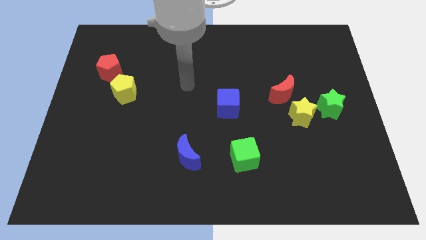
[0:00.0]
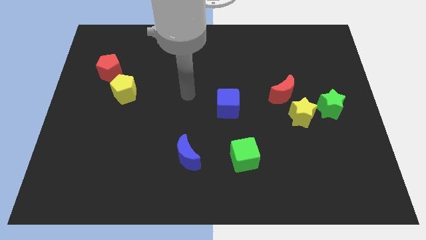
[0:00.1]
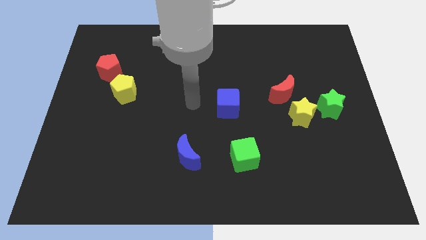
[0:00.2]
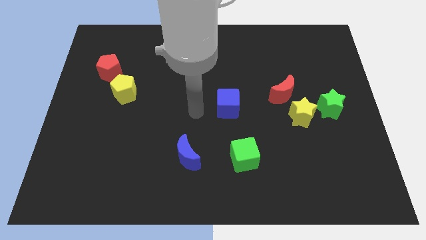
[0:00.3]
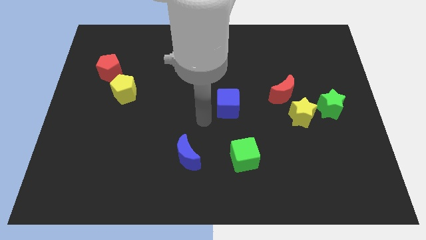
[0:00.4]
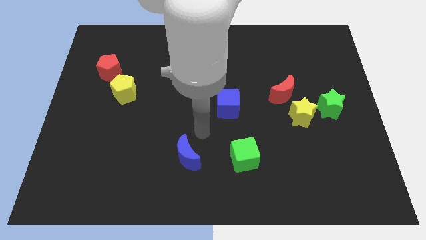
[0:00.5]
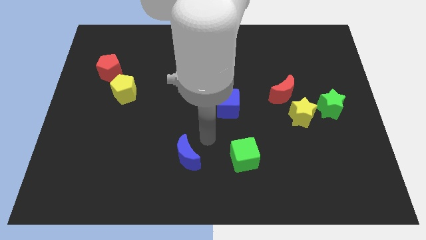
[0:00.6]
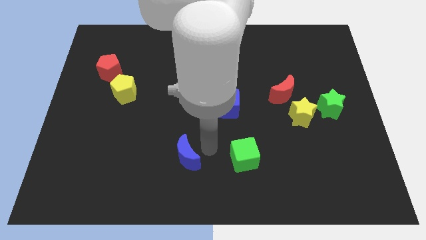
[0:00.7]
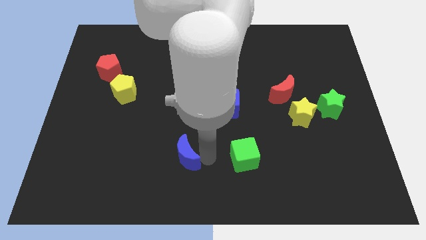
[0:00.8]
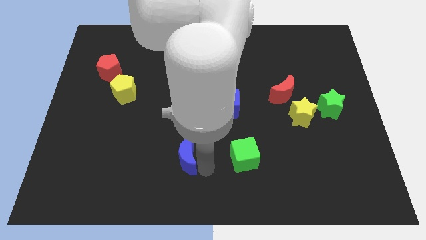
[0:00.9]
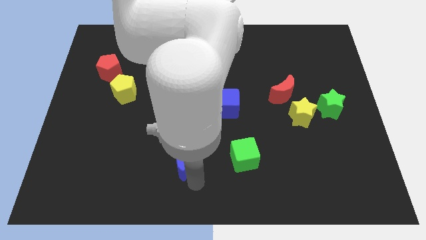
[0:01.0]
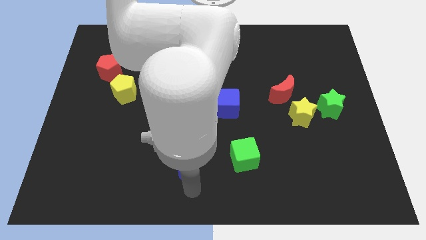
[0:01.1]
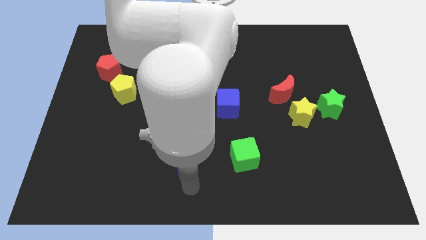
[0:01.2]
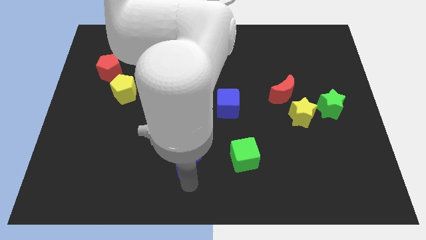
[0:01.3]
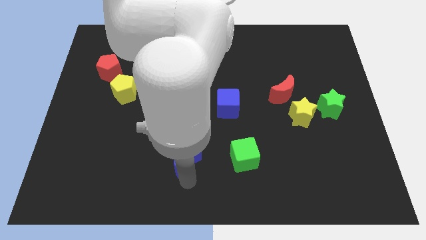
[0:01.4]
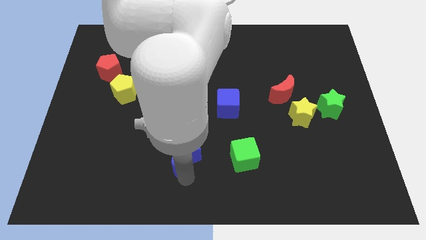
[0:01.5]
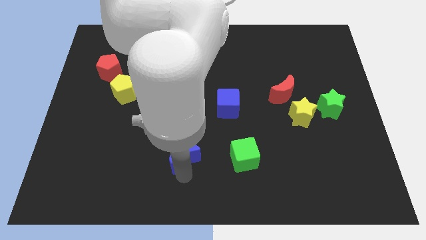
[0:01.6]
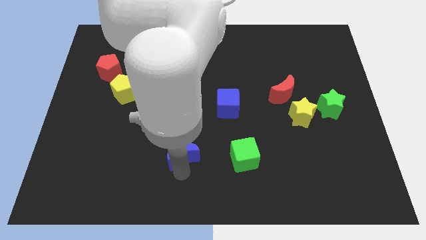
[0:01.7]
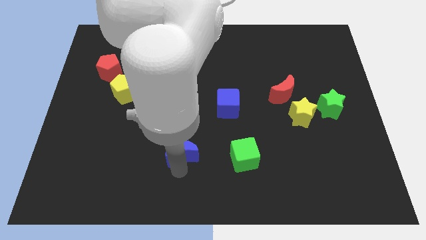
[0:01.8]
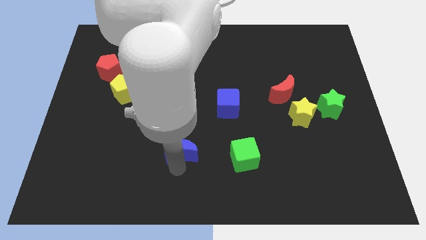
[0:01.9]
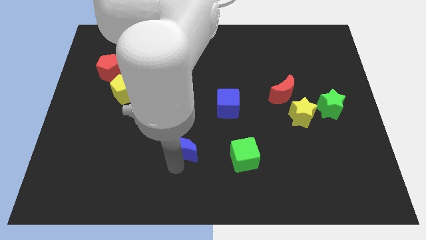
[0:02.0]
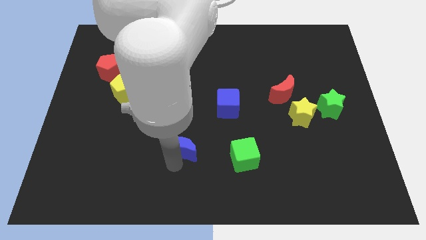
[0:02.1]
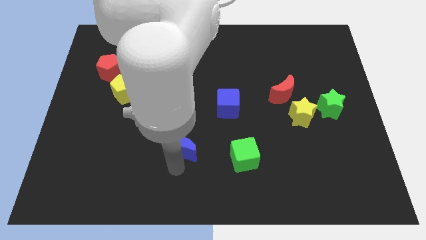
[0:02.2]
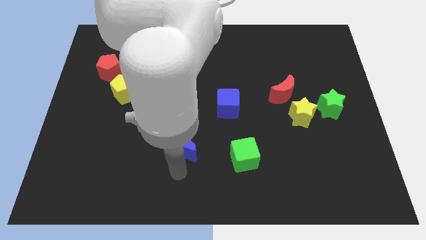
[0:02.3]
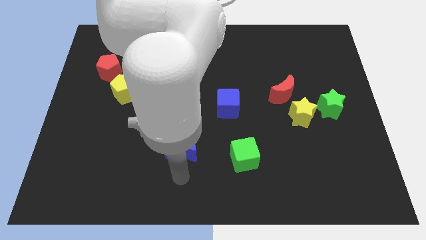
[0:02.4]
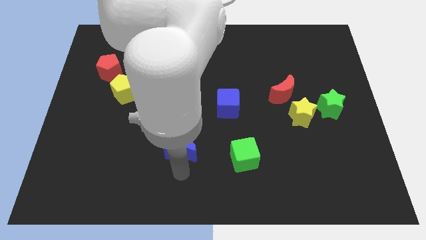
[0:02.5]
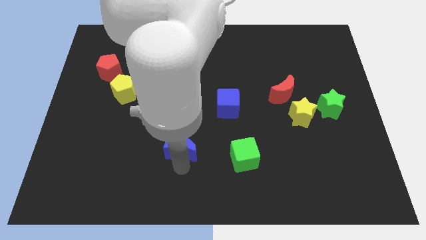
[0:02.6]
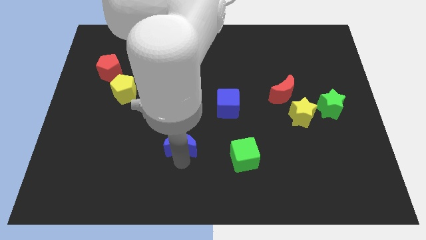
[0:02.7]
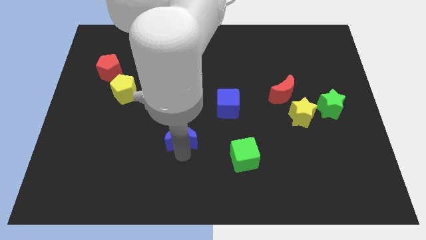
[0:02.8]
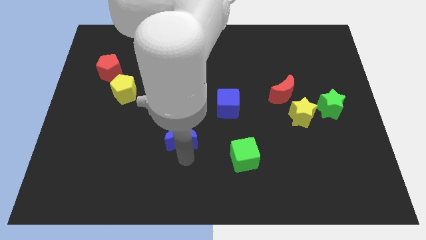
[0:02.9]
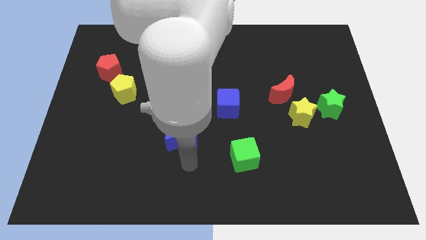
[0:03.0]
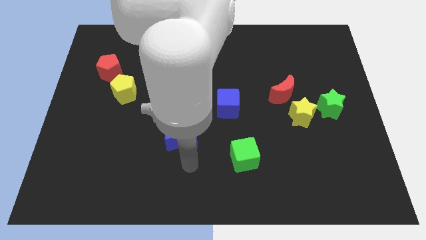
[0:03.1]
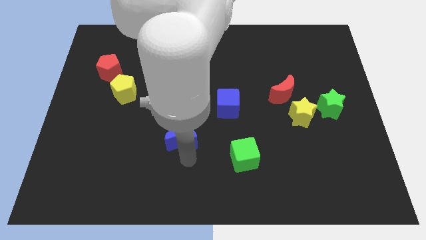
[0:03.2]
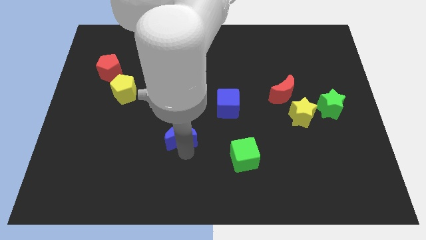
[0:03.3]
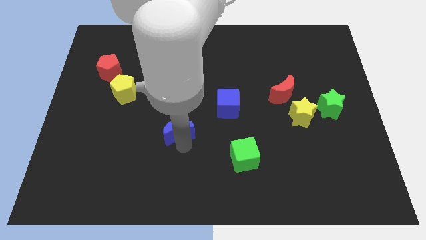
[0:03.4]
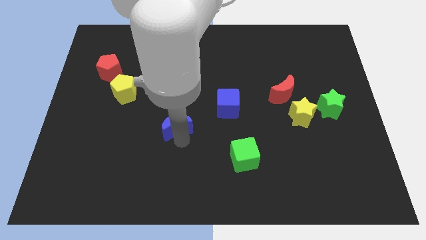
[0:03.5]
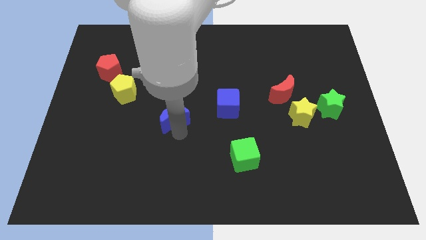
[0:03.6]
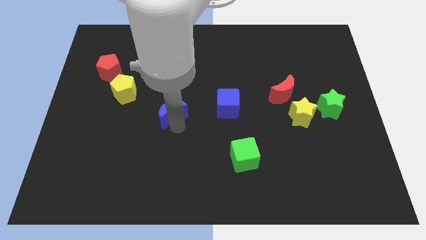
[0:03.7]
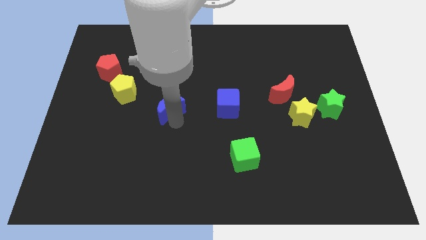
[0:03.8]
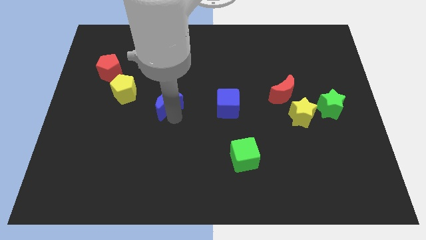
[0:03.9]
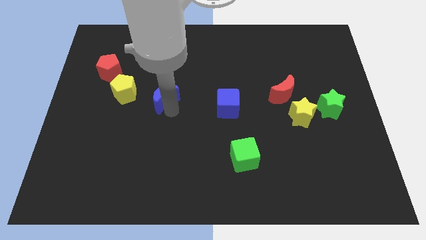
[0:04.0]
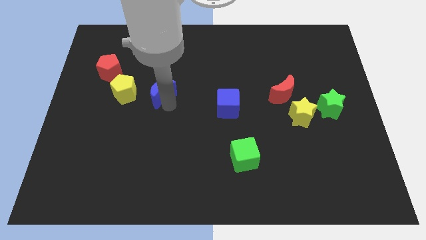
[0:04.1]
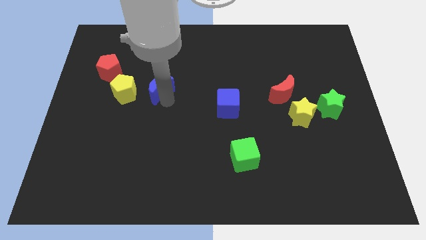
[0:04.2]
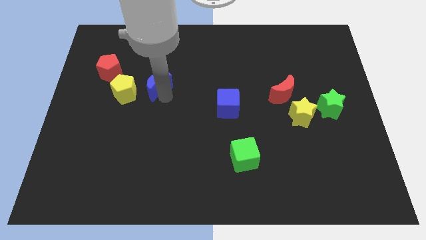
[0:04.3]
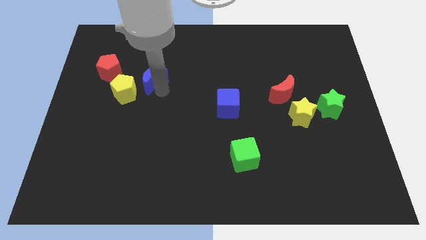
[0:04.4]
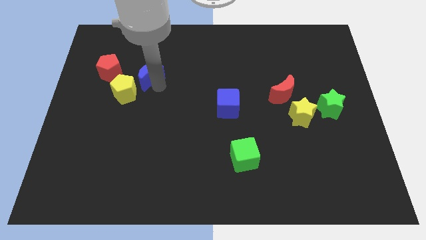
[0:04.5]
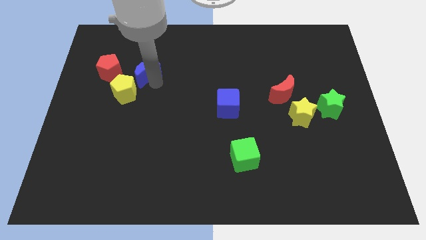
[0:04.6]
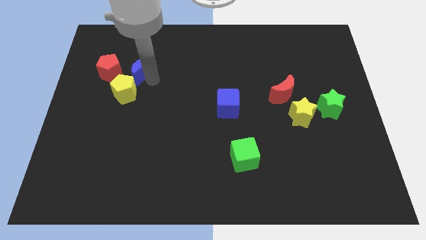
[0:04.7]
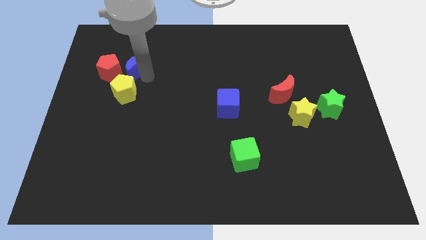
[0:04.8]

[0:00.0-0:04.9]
push the blue moon diagonally up and to the right of the red pentagon

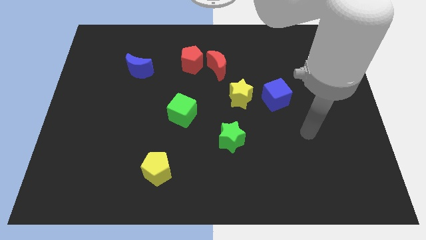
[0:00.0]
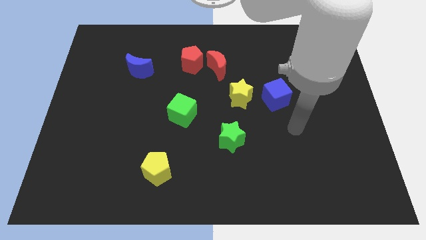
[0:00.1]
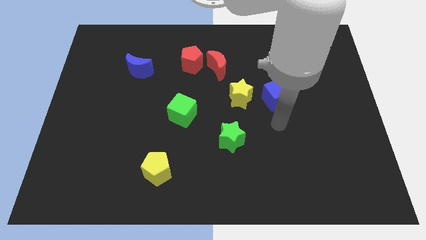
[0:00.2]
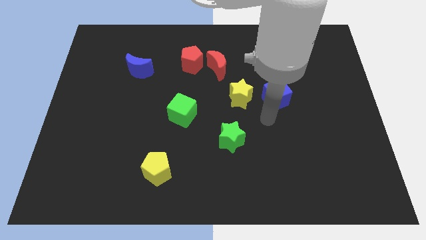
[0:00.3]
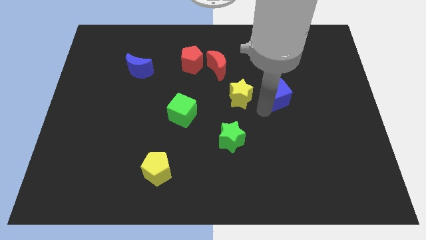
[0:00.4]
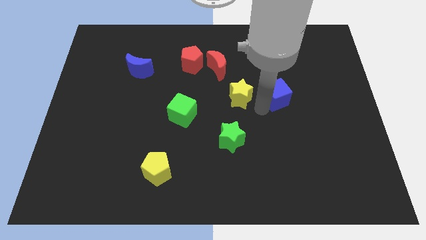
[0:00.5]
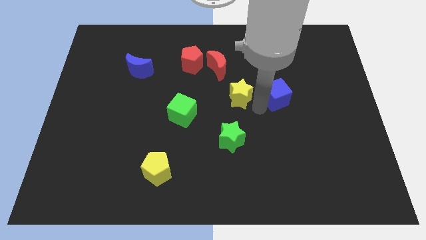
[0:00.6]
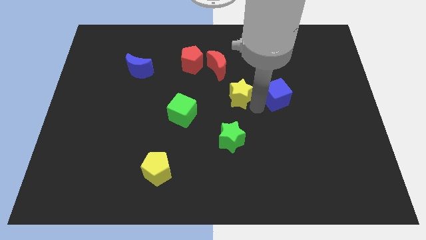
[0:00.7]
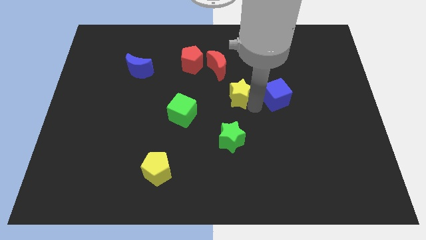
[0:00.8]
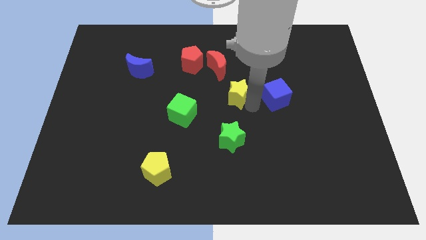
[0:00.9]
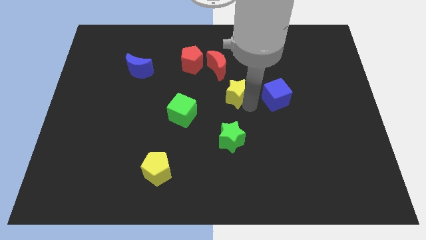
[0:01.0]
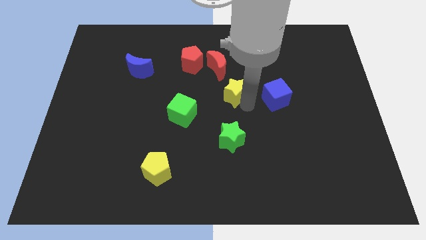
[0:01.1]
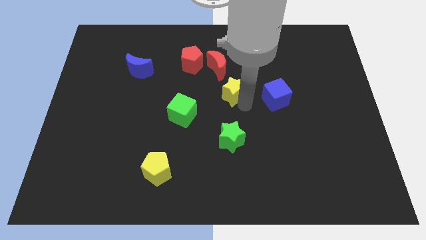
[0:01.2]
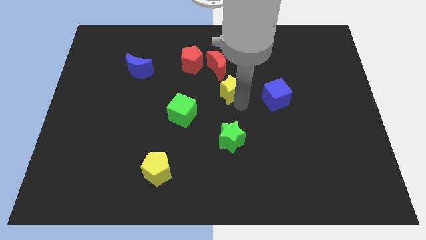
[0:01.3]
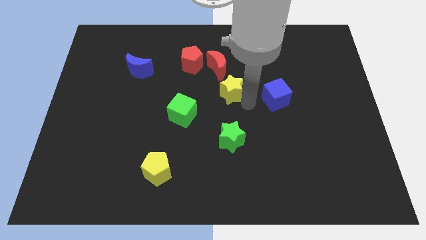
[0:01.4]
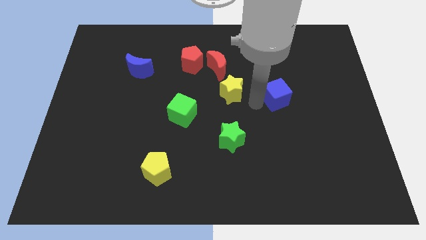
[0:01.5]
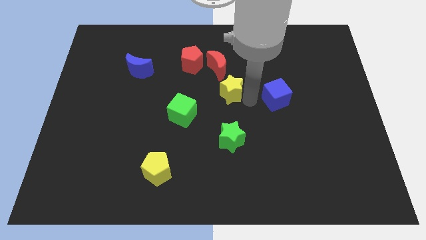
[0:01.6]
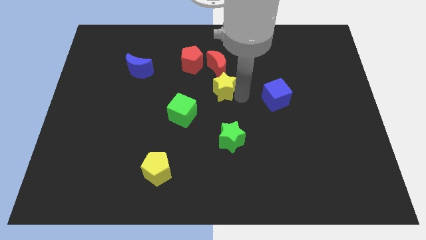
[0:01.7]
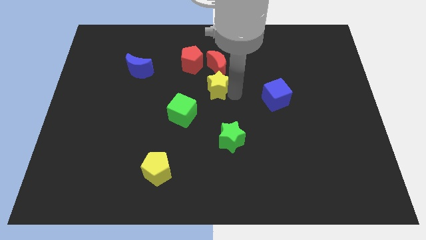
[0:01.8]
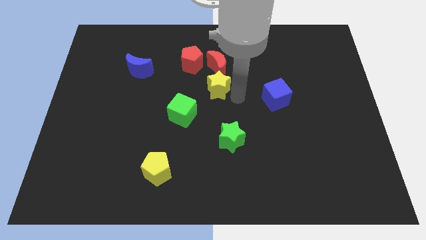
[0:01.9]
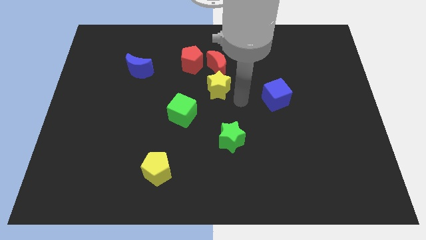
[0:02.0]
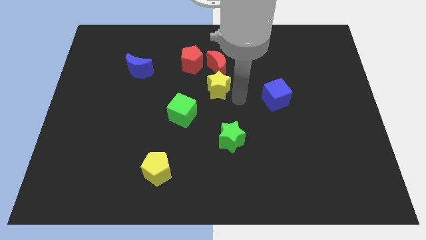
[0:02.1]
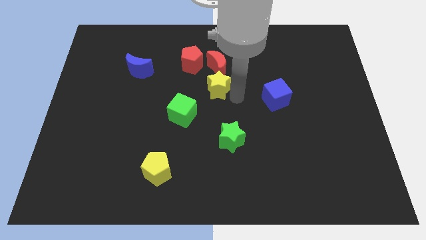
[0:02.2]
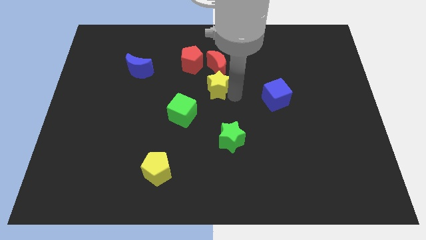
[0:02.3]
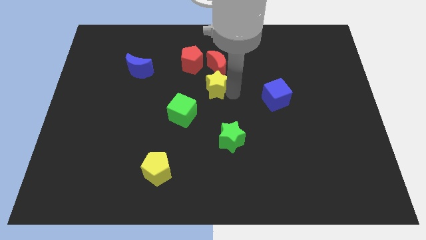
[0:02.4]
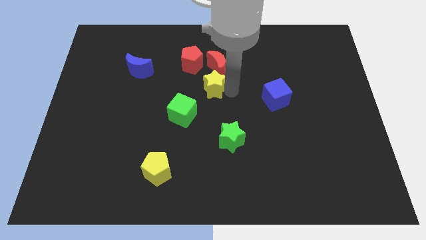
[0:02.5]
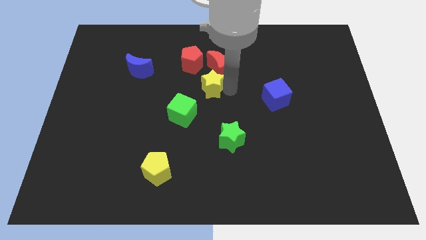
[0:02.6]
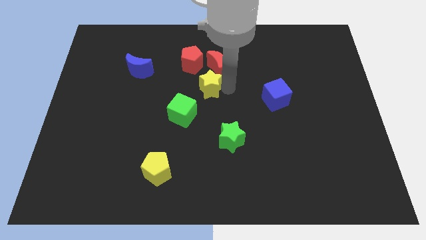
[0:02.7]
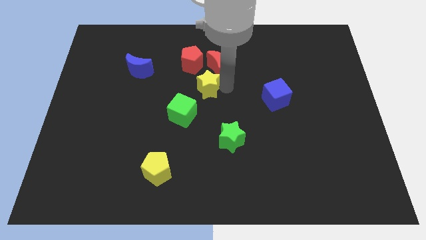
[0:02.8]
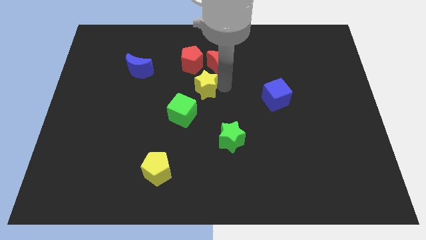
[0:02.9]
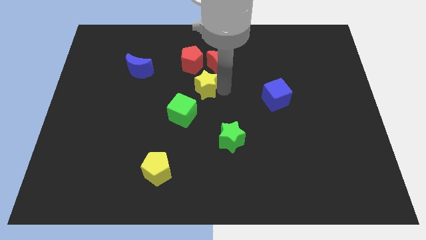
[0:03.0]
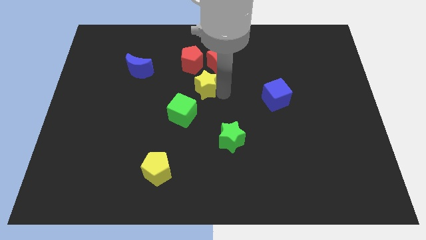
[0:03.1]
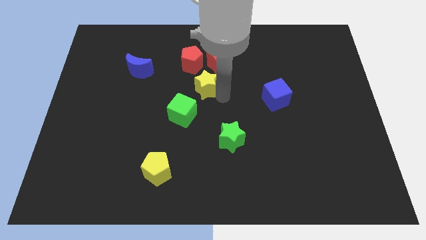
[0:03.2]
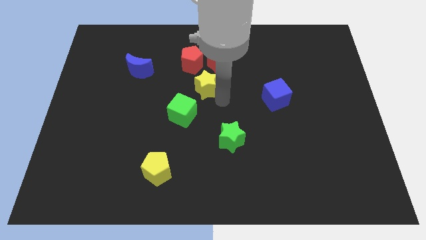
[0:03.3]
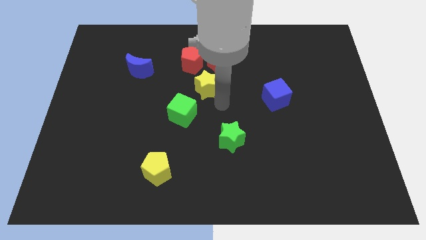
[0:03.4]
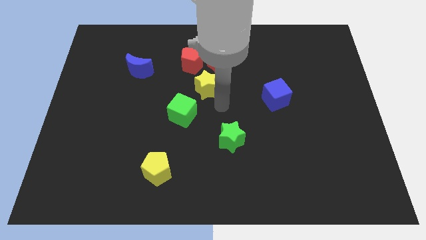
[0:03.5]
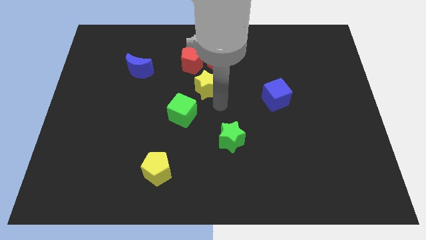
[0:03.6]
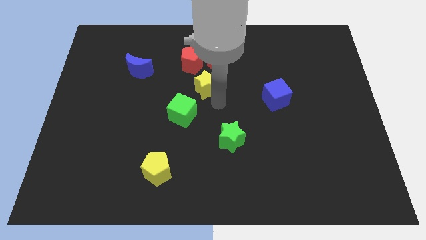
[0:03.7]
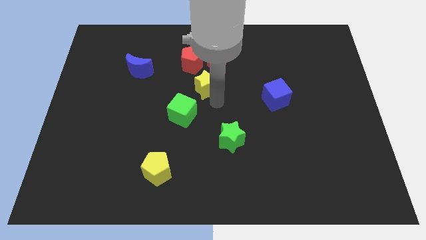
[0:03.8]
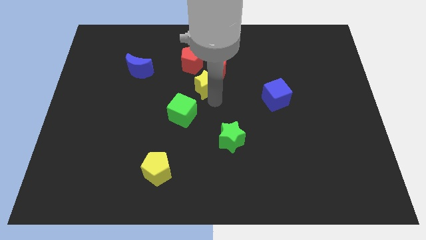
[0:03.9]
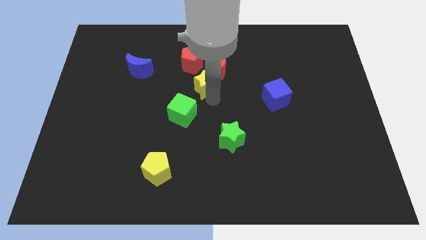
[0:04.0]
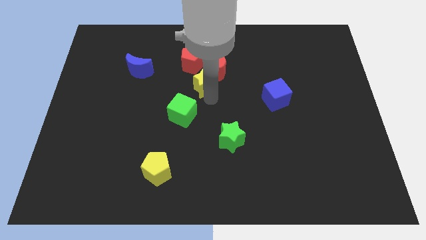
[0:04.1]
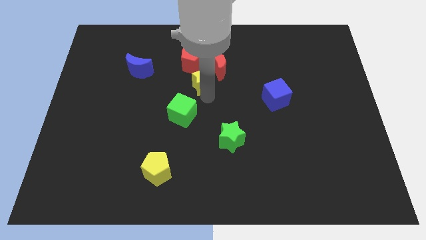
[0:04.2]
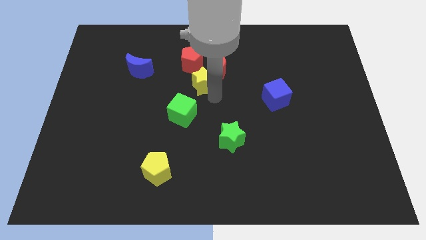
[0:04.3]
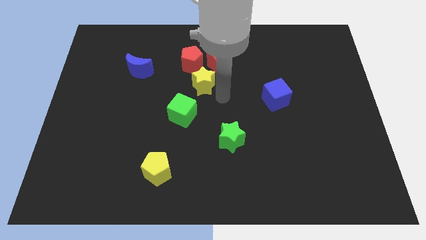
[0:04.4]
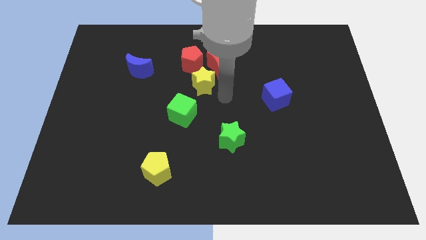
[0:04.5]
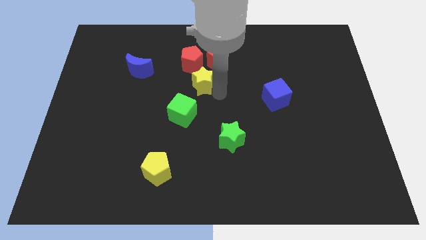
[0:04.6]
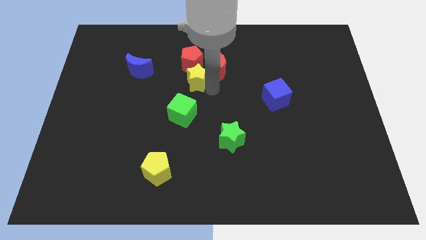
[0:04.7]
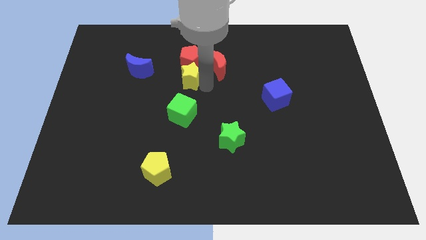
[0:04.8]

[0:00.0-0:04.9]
slide the yellow star to the right side of the blue moon
